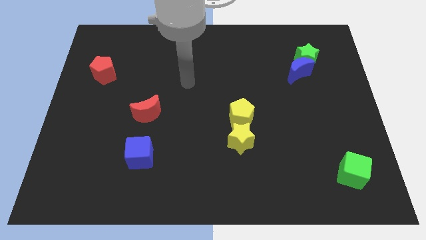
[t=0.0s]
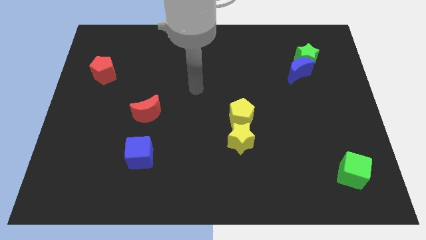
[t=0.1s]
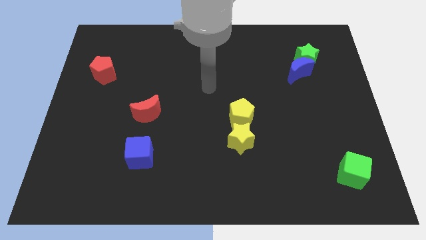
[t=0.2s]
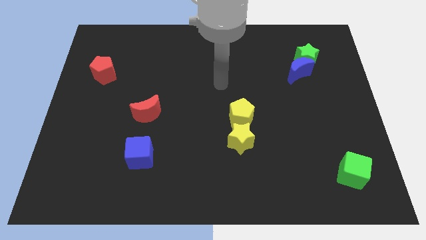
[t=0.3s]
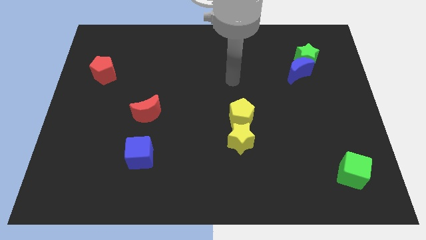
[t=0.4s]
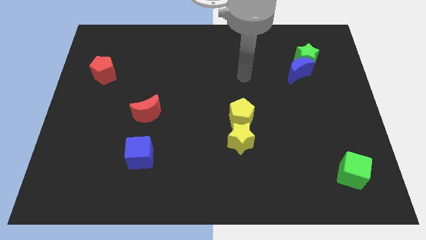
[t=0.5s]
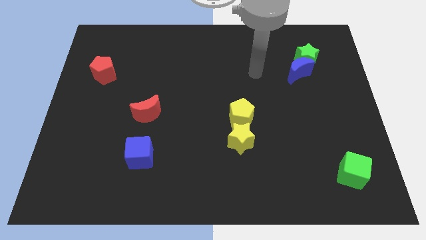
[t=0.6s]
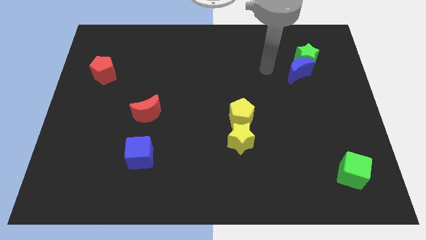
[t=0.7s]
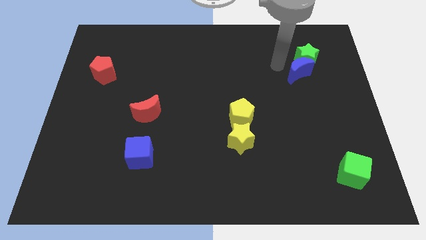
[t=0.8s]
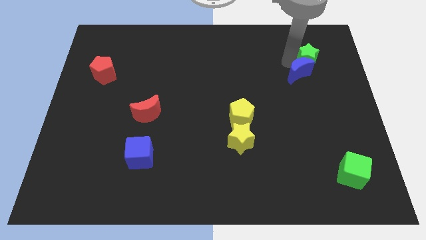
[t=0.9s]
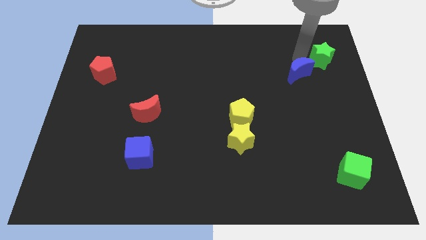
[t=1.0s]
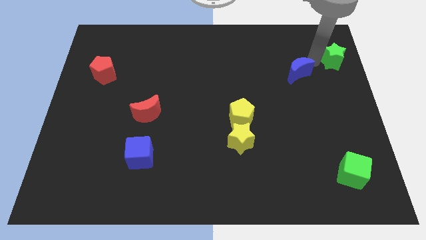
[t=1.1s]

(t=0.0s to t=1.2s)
move the blue moon away from the green star

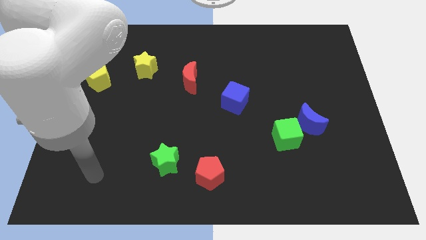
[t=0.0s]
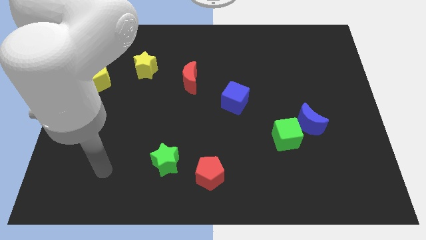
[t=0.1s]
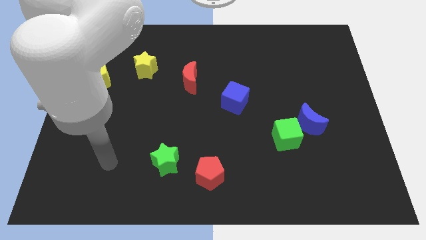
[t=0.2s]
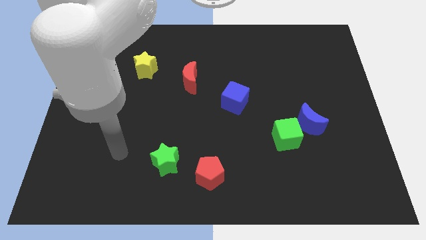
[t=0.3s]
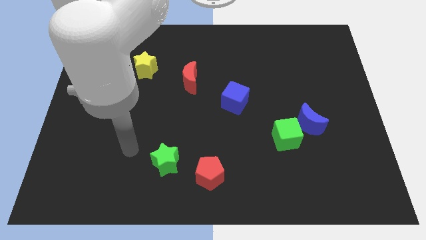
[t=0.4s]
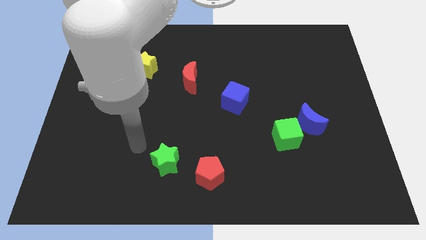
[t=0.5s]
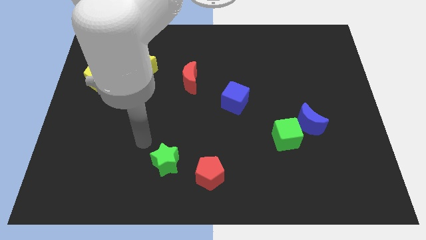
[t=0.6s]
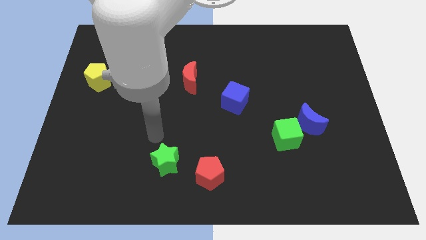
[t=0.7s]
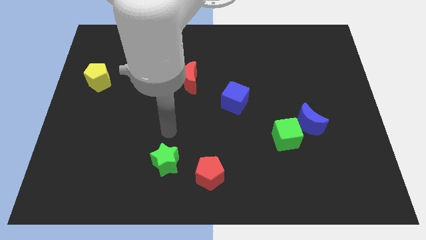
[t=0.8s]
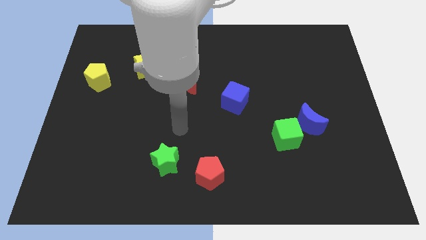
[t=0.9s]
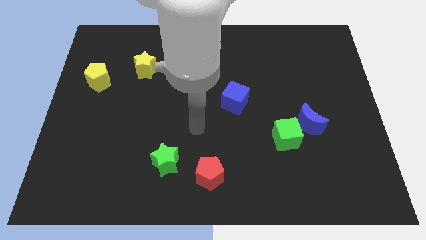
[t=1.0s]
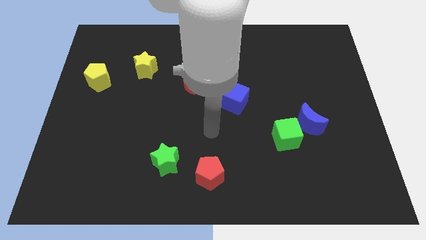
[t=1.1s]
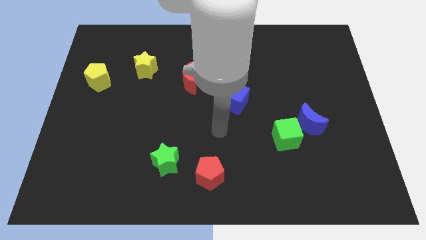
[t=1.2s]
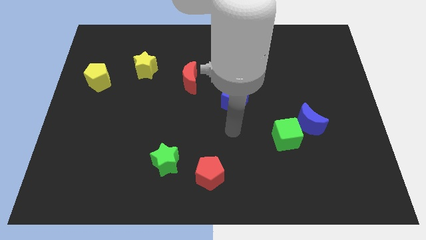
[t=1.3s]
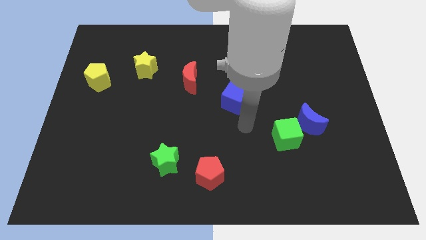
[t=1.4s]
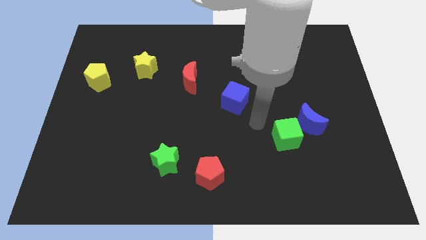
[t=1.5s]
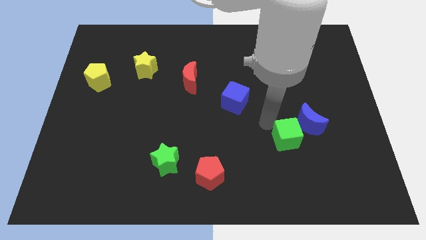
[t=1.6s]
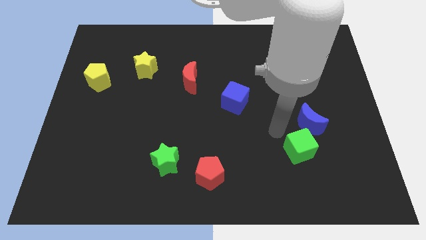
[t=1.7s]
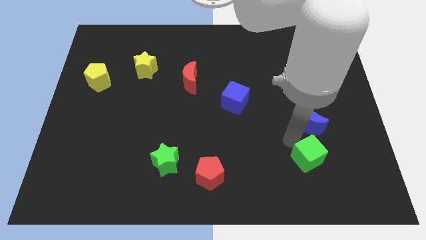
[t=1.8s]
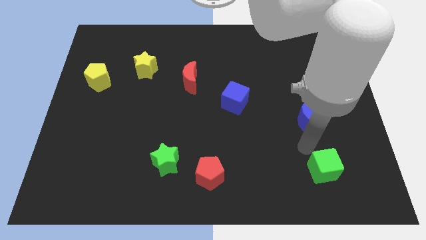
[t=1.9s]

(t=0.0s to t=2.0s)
move the blue moon away from the green cube

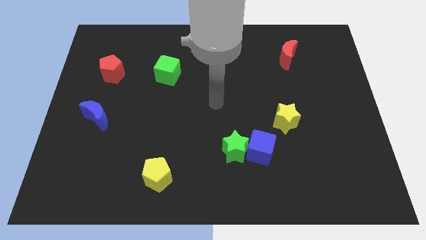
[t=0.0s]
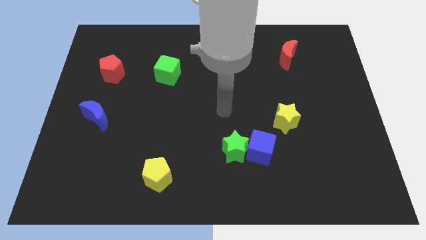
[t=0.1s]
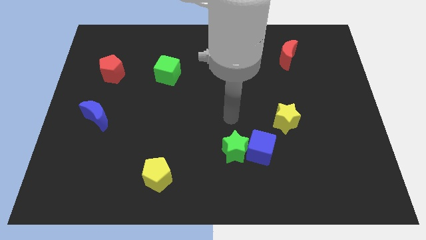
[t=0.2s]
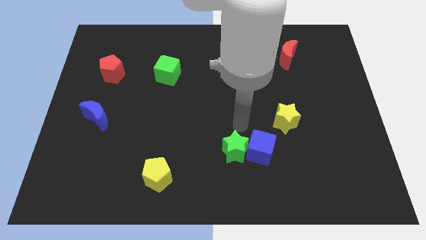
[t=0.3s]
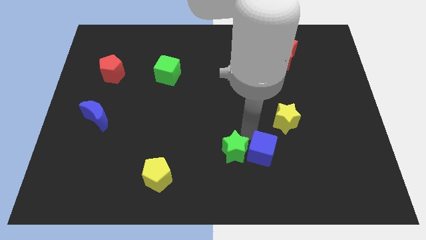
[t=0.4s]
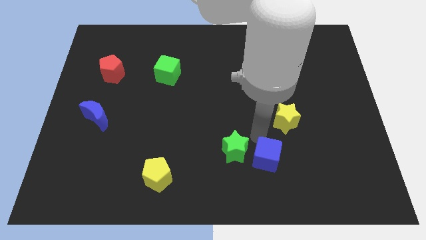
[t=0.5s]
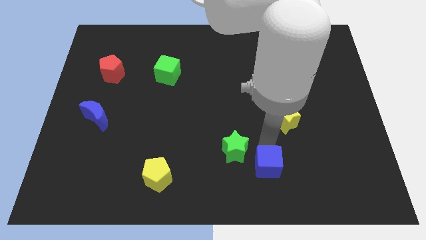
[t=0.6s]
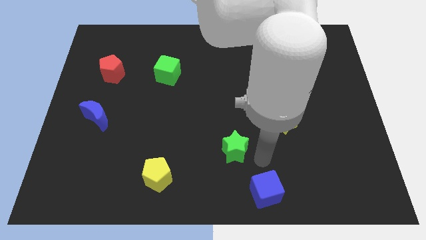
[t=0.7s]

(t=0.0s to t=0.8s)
move the green star away from the blue cube

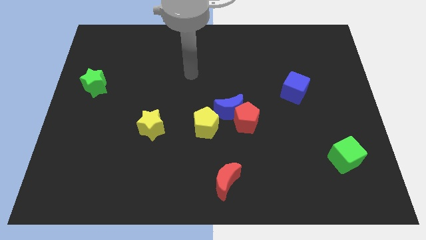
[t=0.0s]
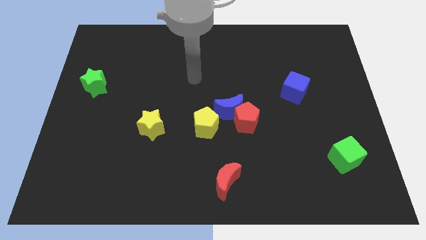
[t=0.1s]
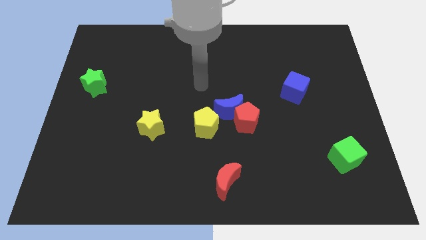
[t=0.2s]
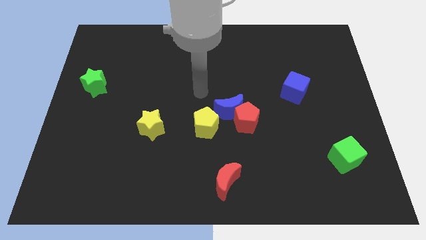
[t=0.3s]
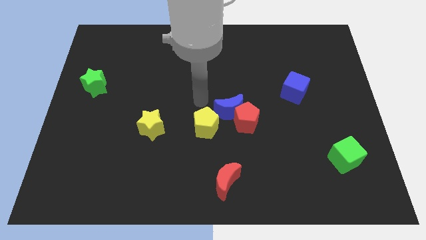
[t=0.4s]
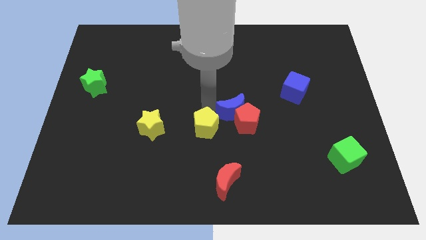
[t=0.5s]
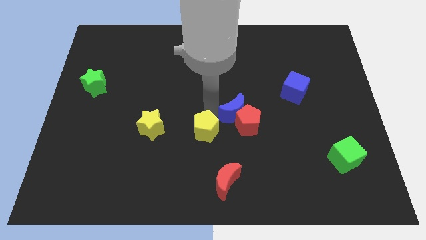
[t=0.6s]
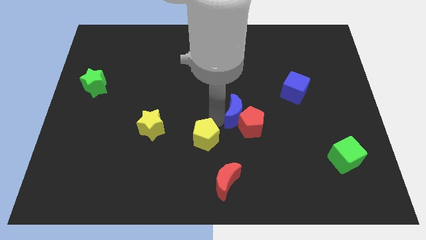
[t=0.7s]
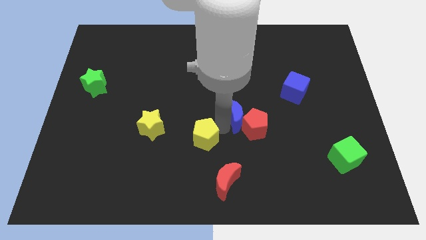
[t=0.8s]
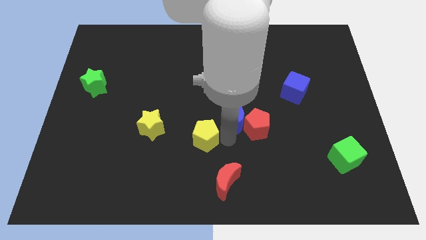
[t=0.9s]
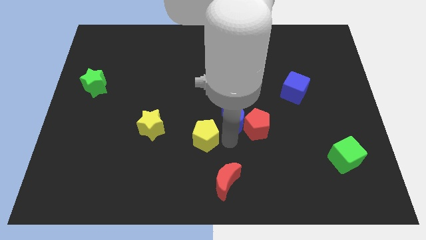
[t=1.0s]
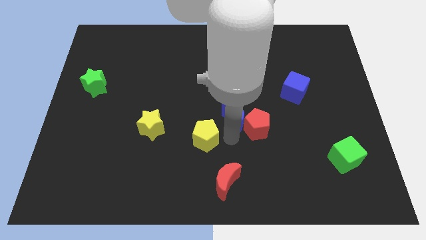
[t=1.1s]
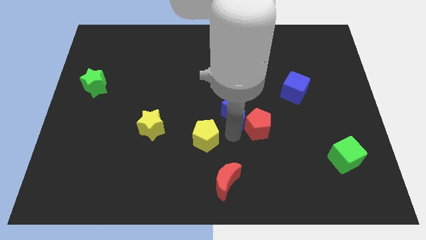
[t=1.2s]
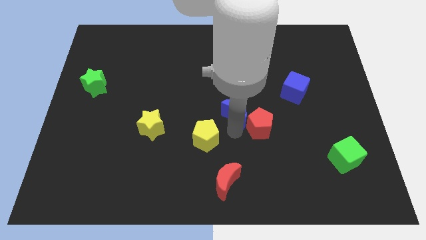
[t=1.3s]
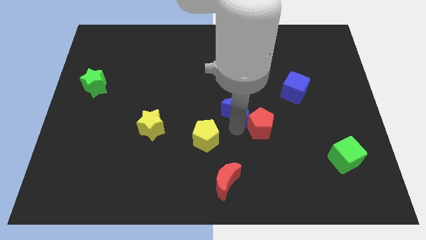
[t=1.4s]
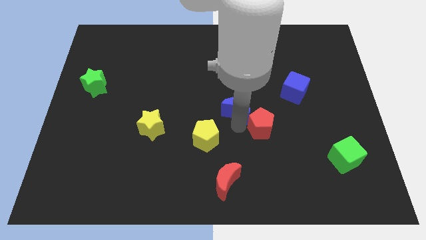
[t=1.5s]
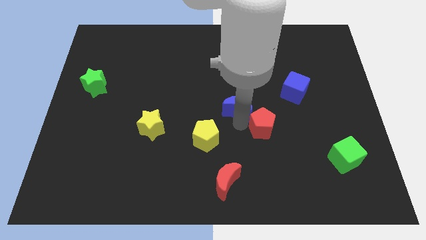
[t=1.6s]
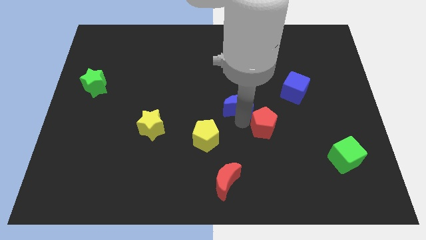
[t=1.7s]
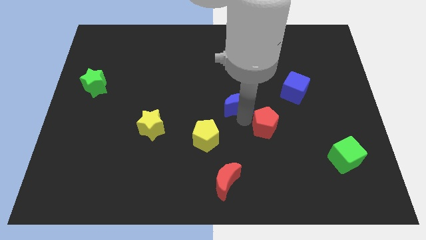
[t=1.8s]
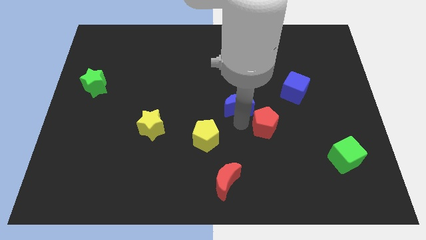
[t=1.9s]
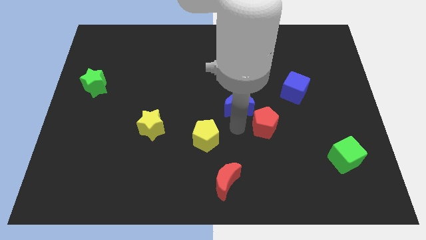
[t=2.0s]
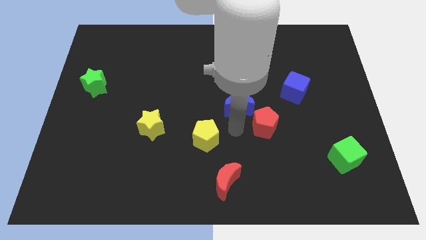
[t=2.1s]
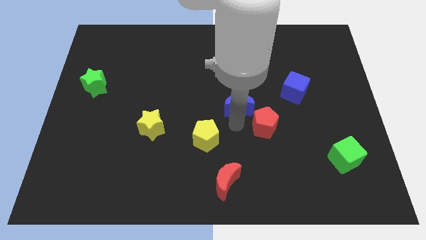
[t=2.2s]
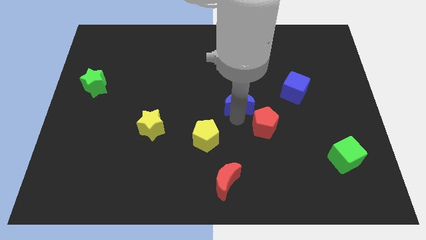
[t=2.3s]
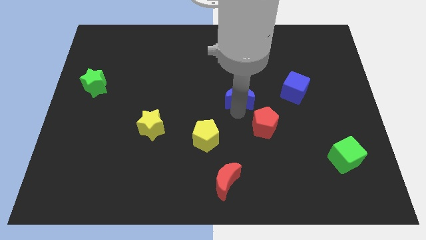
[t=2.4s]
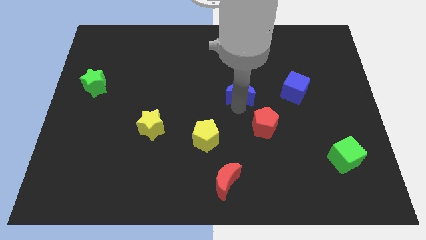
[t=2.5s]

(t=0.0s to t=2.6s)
move the blue moon away from the red pentagon and yellow pentagon

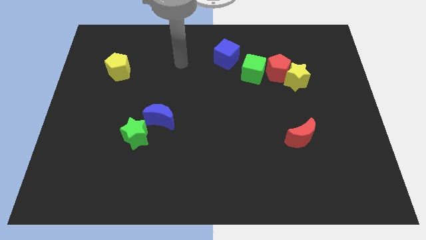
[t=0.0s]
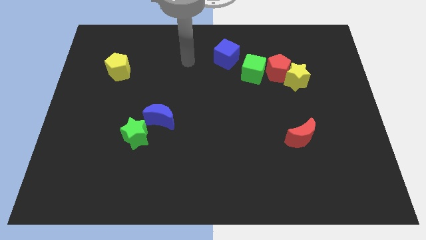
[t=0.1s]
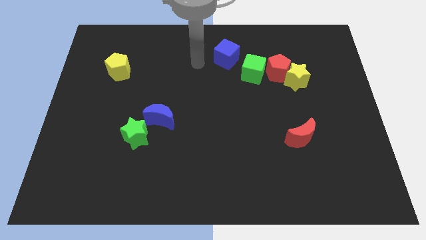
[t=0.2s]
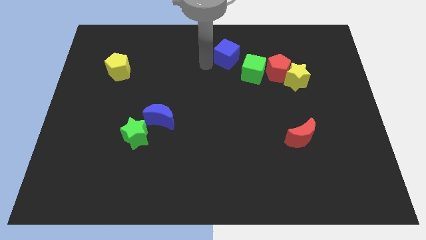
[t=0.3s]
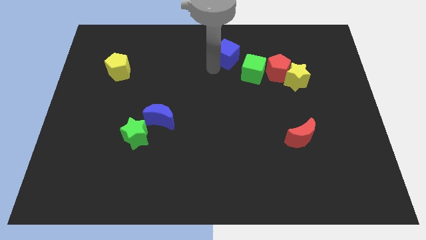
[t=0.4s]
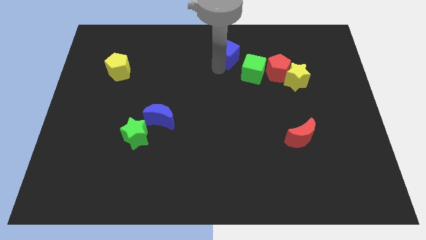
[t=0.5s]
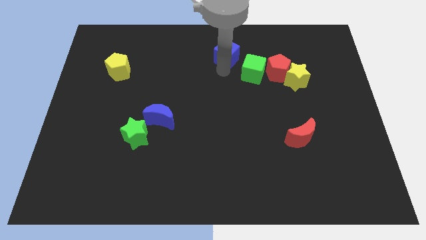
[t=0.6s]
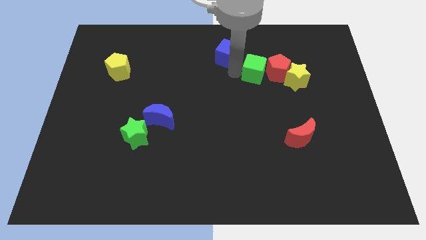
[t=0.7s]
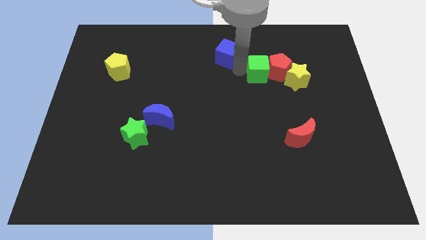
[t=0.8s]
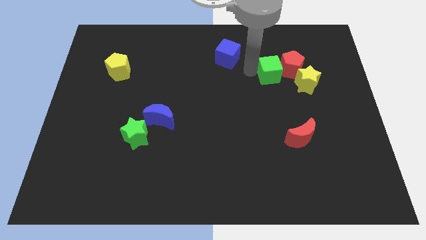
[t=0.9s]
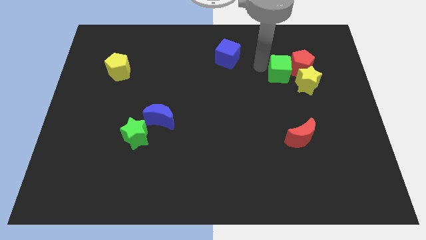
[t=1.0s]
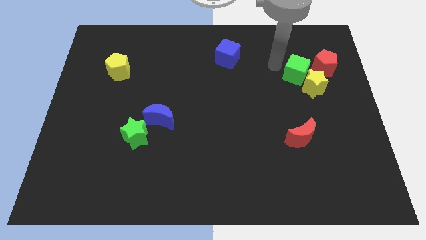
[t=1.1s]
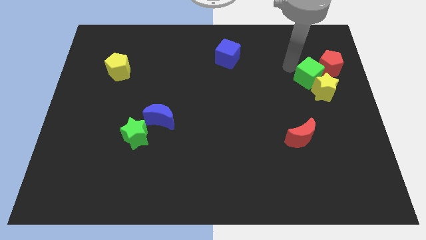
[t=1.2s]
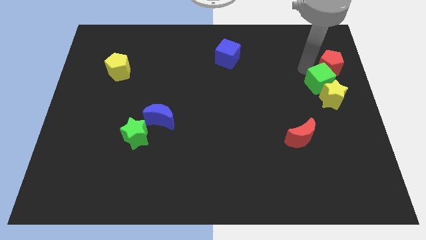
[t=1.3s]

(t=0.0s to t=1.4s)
move the yellow star away from the red pentagon

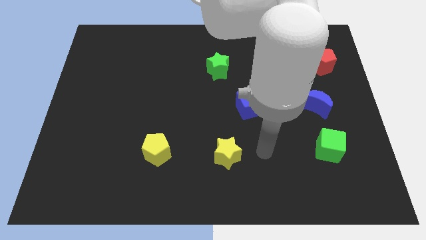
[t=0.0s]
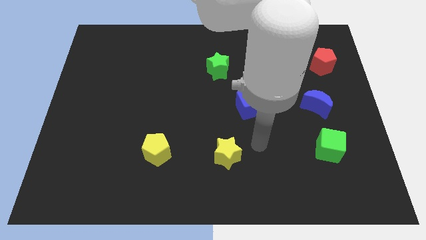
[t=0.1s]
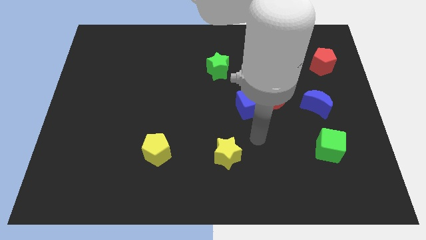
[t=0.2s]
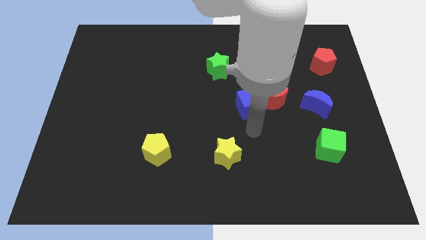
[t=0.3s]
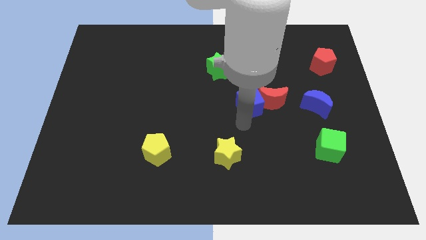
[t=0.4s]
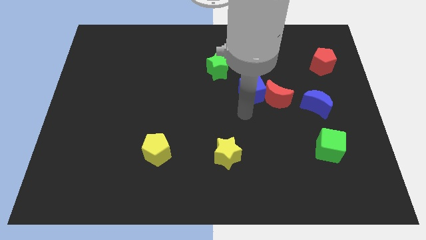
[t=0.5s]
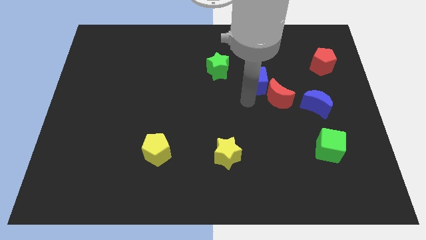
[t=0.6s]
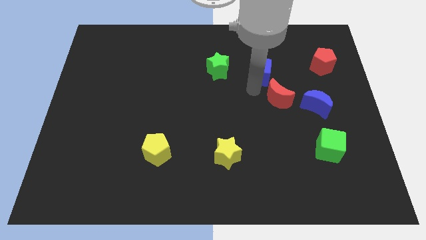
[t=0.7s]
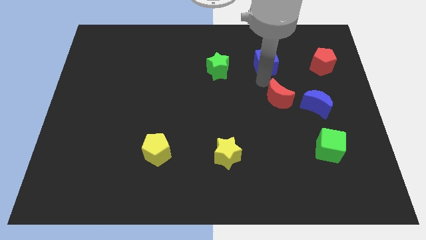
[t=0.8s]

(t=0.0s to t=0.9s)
pull the red moon apart from the blue cube

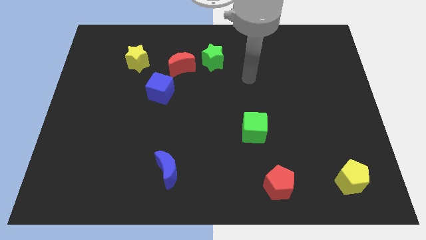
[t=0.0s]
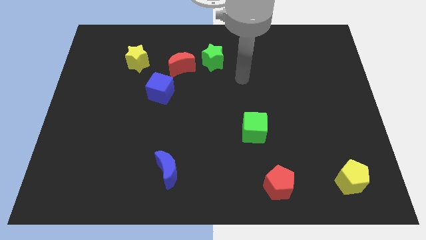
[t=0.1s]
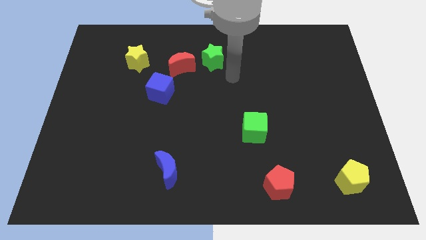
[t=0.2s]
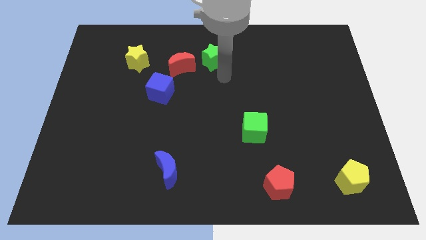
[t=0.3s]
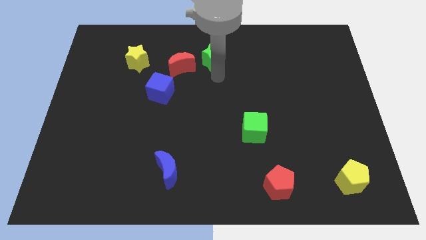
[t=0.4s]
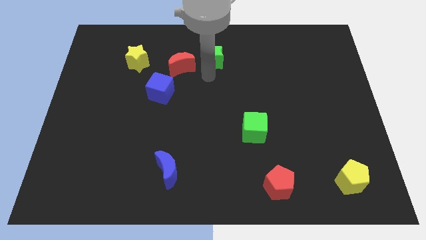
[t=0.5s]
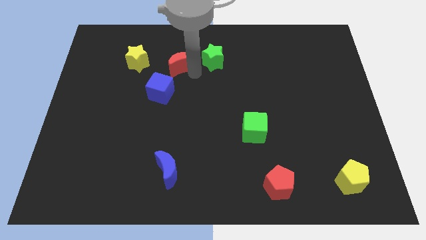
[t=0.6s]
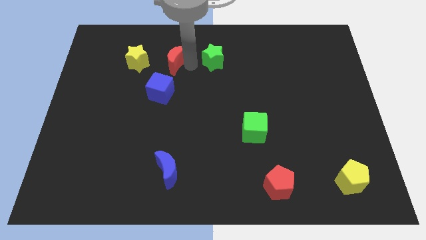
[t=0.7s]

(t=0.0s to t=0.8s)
move the green star away from the red moon
